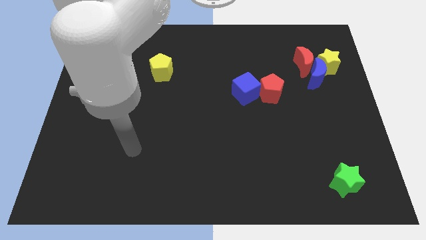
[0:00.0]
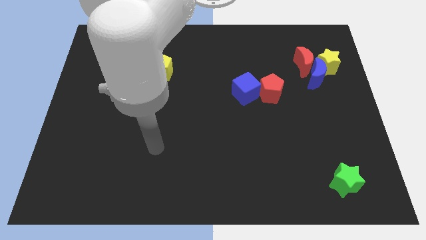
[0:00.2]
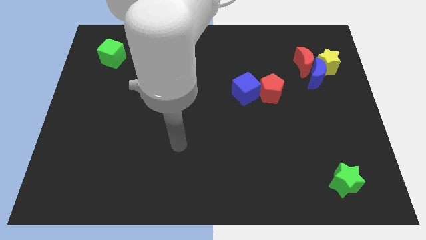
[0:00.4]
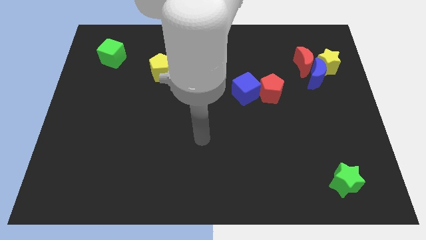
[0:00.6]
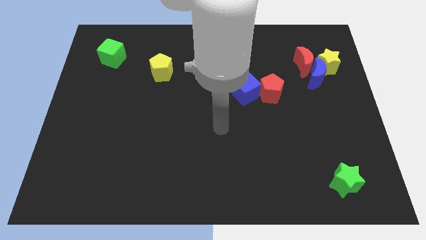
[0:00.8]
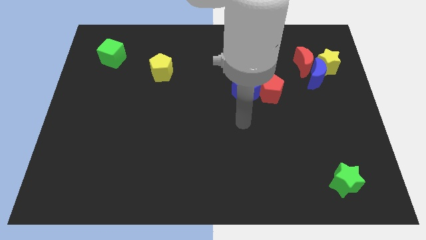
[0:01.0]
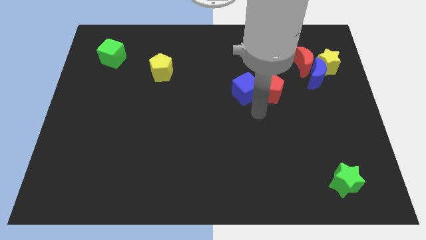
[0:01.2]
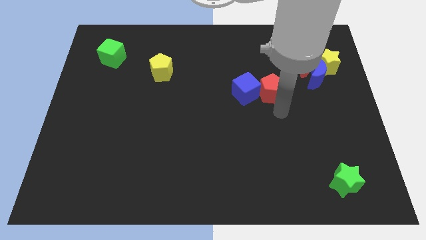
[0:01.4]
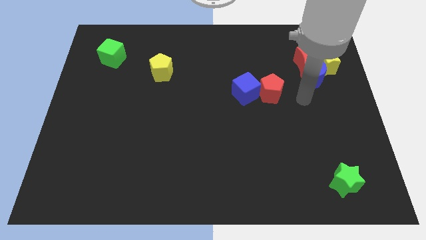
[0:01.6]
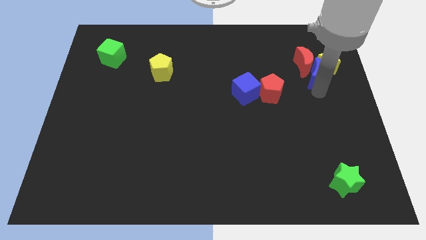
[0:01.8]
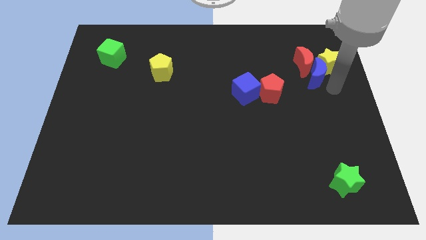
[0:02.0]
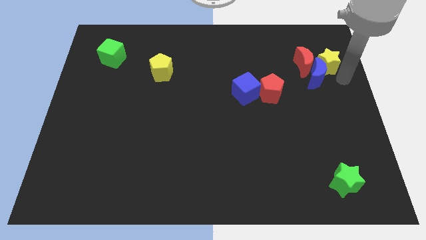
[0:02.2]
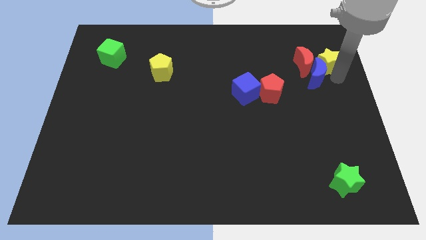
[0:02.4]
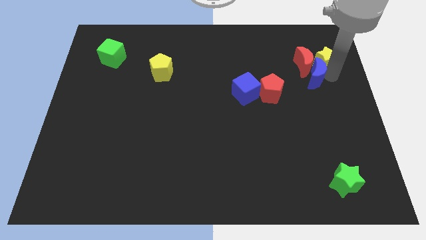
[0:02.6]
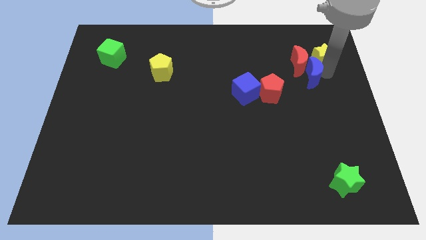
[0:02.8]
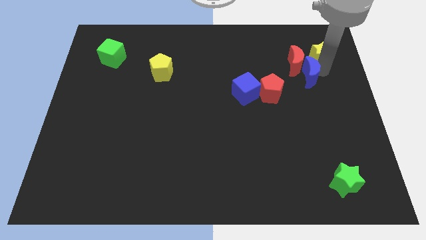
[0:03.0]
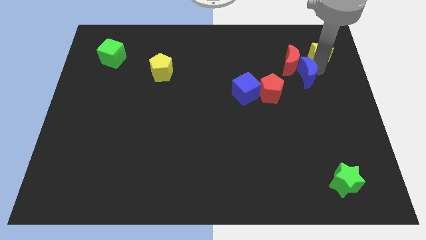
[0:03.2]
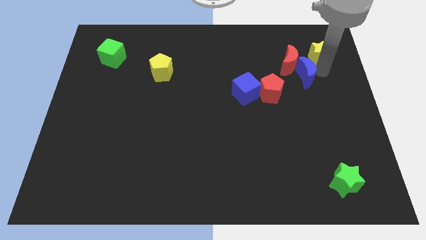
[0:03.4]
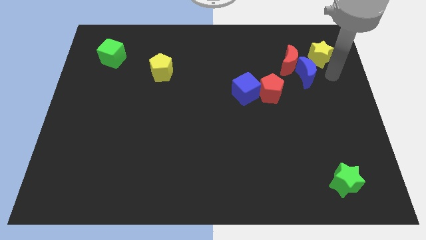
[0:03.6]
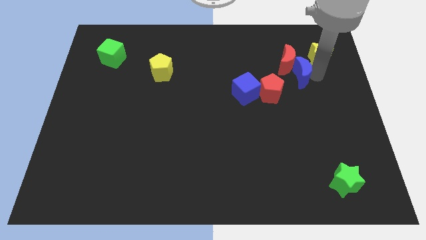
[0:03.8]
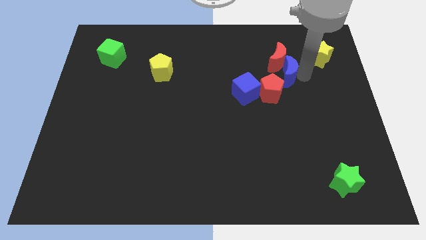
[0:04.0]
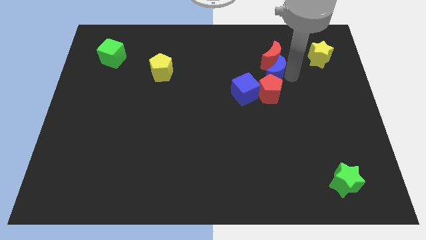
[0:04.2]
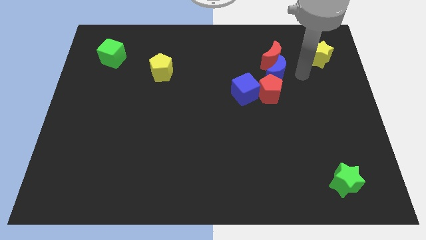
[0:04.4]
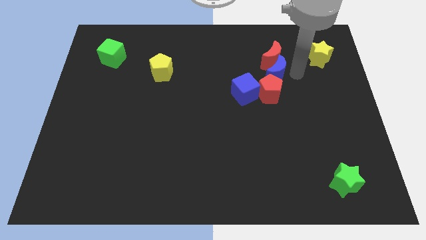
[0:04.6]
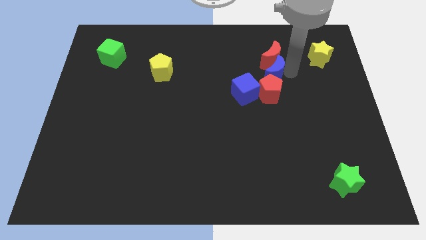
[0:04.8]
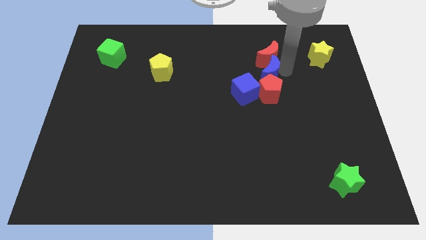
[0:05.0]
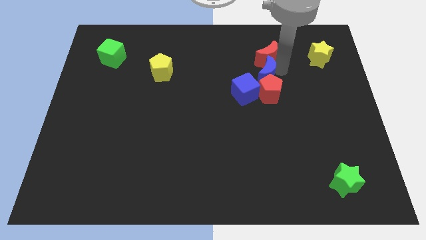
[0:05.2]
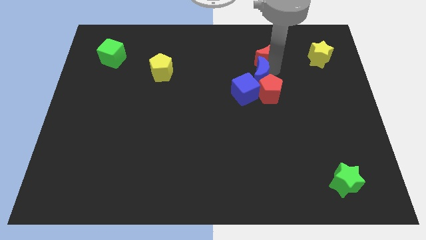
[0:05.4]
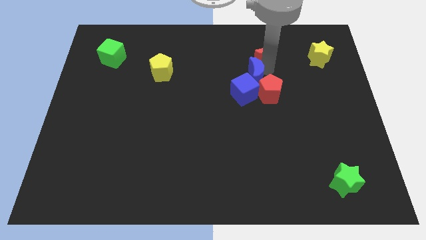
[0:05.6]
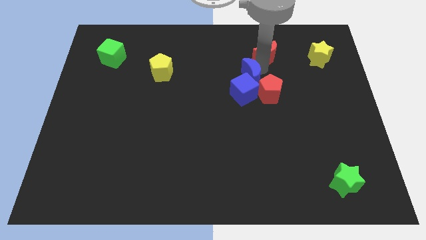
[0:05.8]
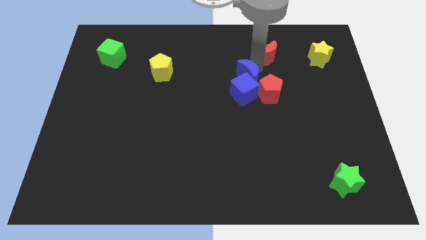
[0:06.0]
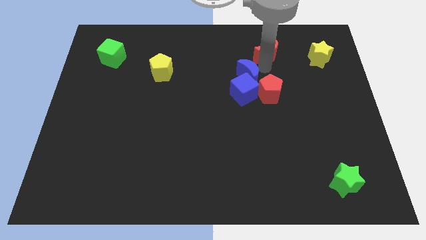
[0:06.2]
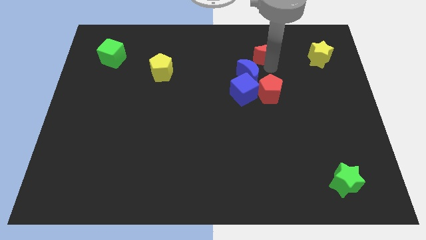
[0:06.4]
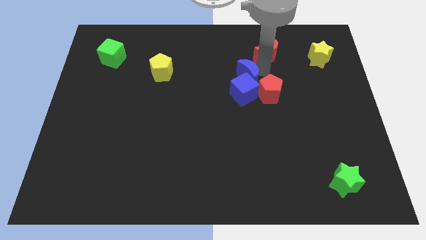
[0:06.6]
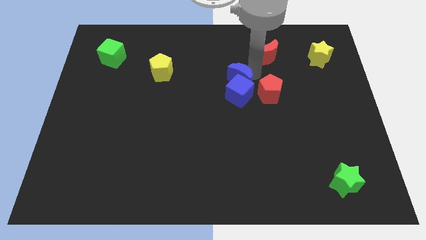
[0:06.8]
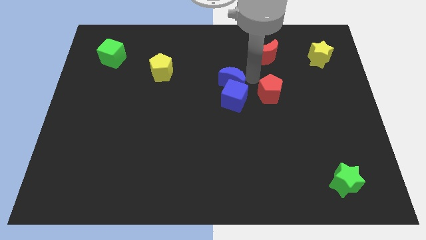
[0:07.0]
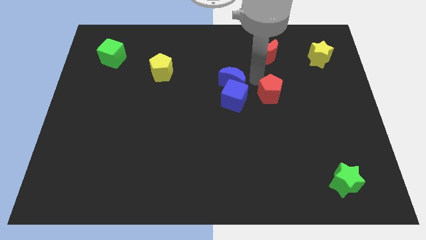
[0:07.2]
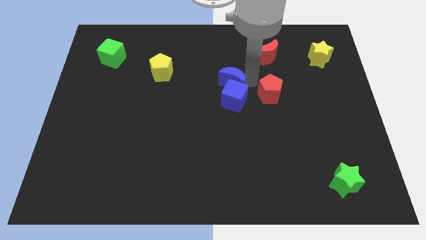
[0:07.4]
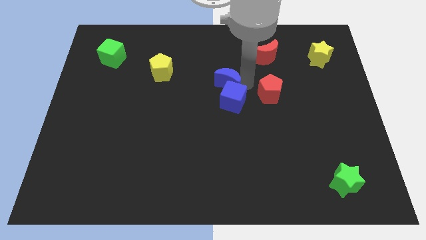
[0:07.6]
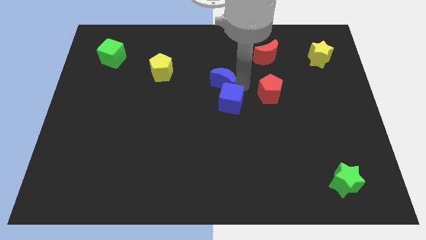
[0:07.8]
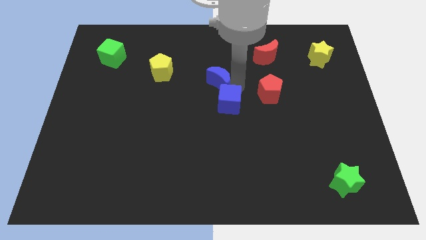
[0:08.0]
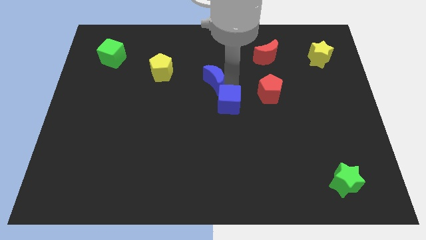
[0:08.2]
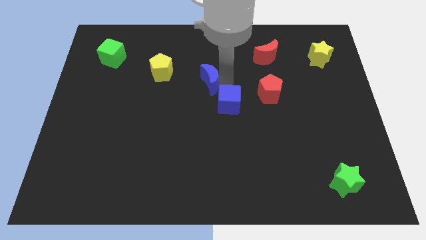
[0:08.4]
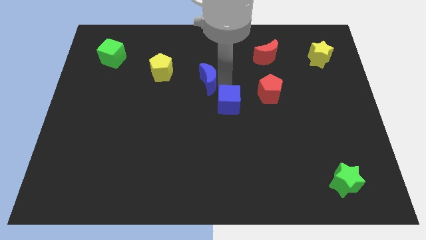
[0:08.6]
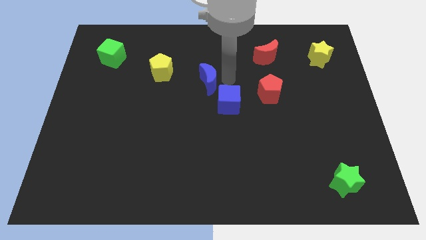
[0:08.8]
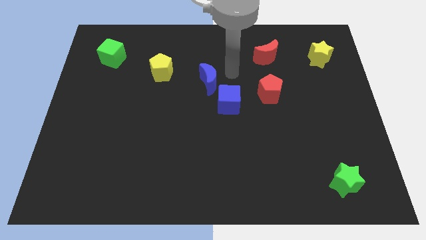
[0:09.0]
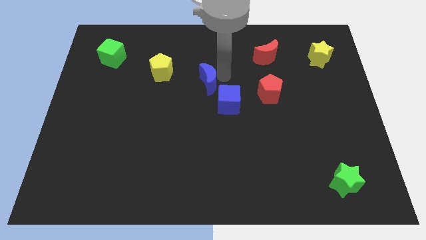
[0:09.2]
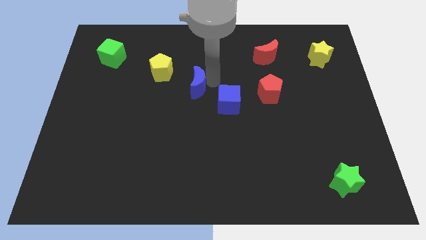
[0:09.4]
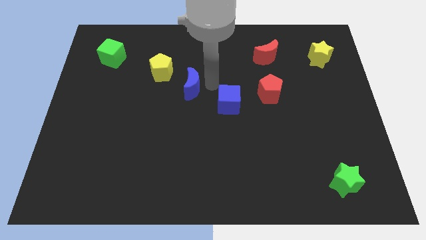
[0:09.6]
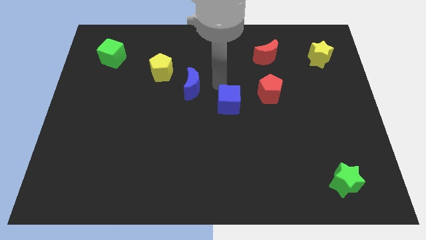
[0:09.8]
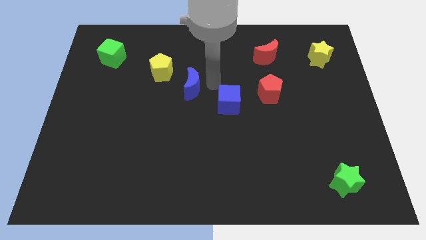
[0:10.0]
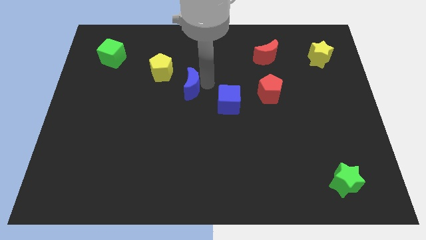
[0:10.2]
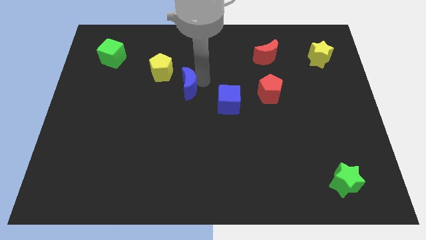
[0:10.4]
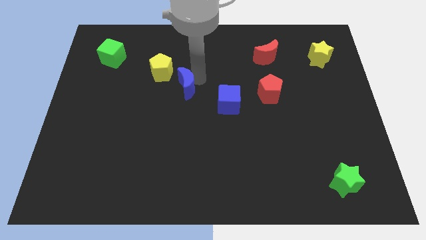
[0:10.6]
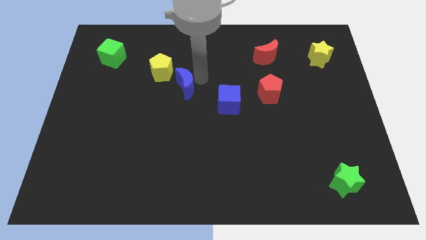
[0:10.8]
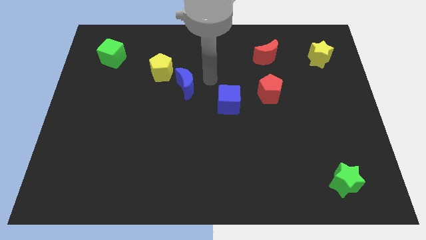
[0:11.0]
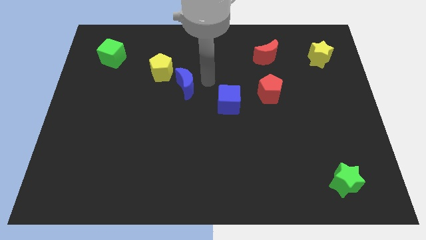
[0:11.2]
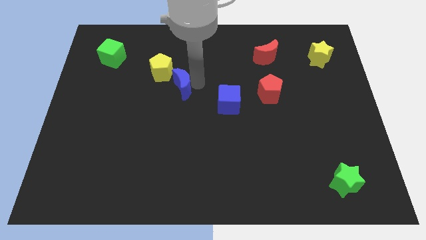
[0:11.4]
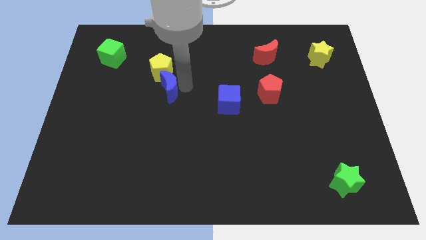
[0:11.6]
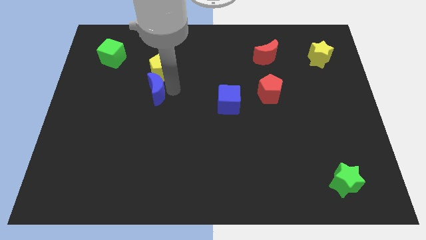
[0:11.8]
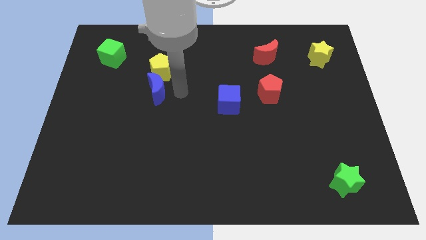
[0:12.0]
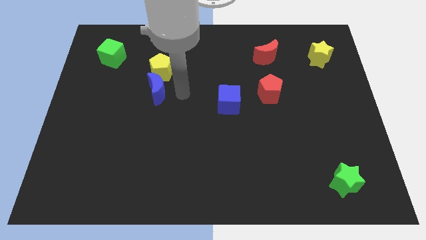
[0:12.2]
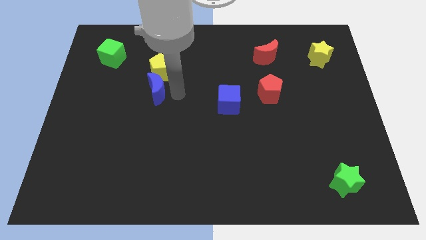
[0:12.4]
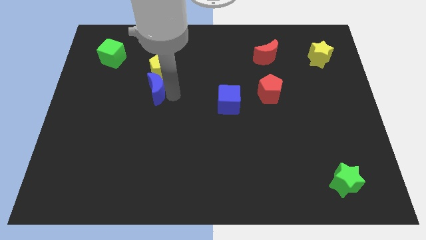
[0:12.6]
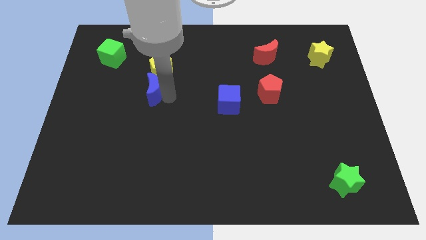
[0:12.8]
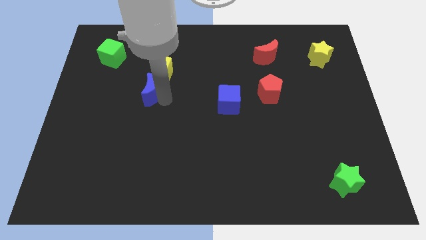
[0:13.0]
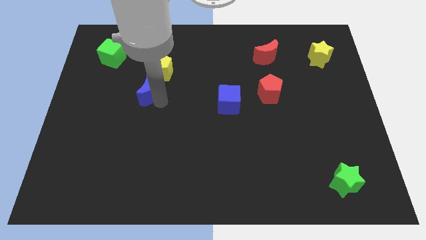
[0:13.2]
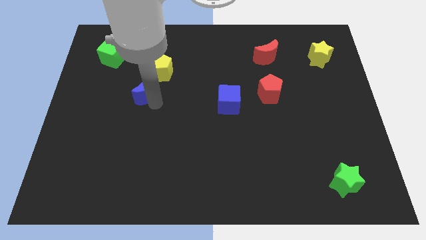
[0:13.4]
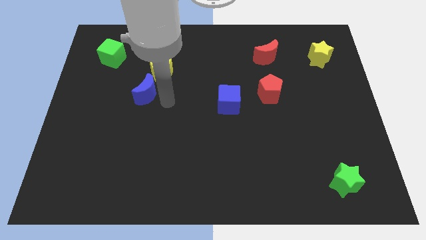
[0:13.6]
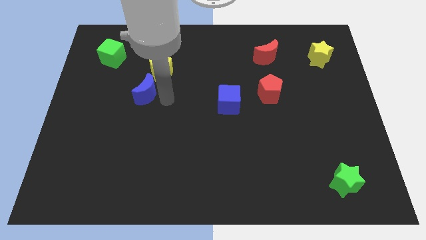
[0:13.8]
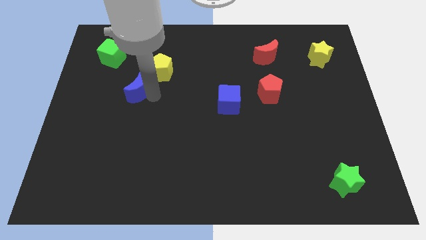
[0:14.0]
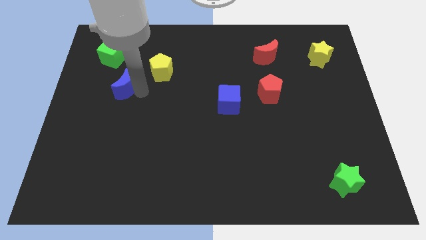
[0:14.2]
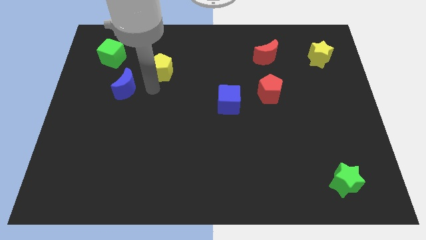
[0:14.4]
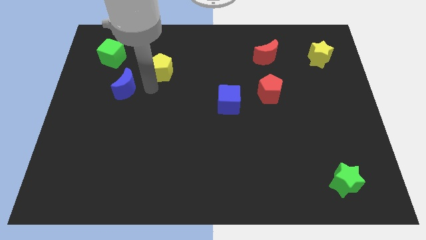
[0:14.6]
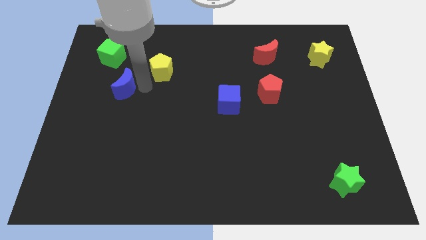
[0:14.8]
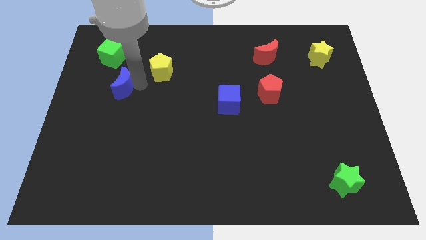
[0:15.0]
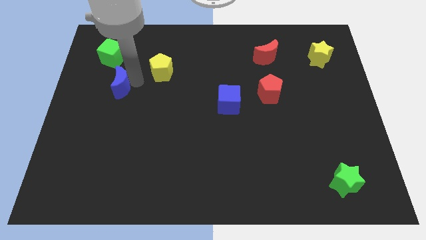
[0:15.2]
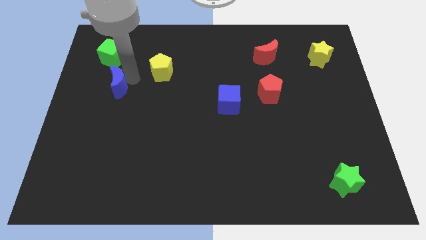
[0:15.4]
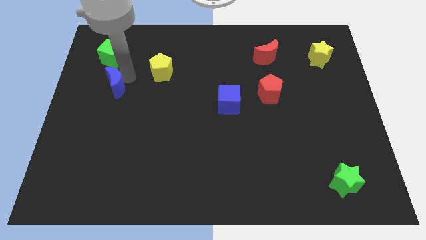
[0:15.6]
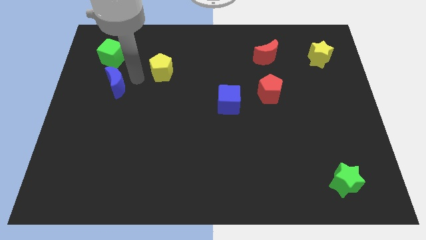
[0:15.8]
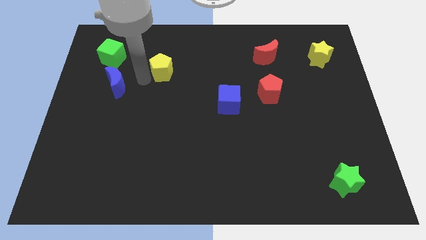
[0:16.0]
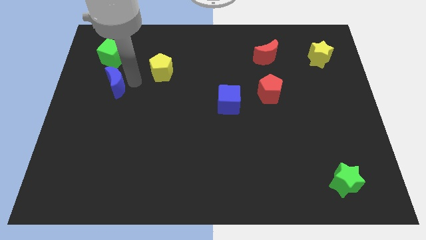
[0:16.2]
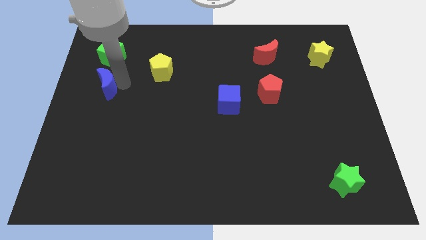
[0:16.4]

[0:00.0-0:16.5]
put the blue moon to the left side
